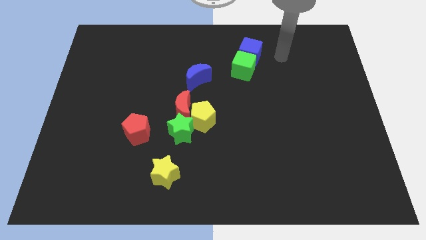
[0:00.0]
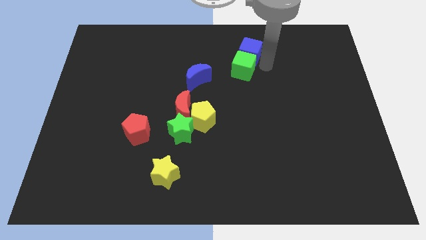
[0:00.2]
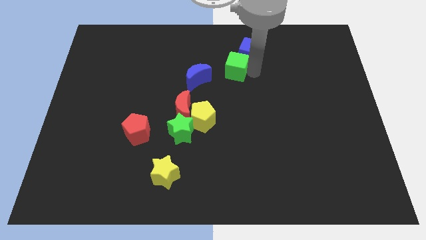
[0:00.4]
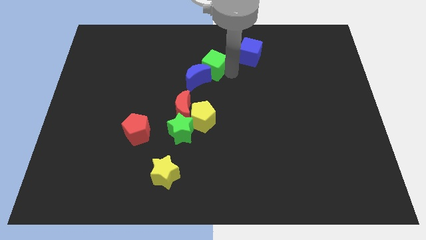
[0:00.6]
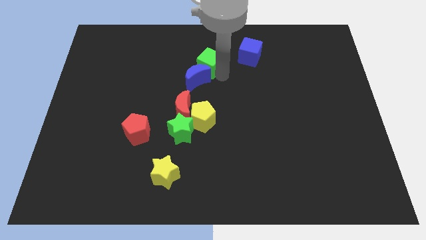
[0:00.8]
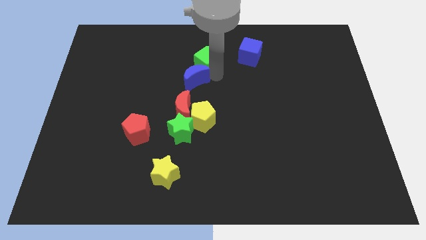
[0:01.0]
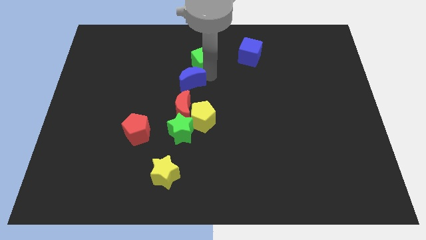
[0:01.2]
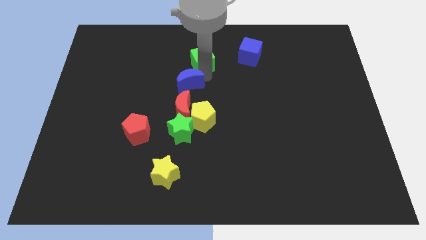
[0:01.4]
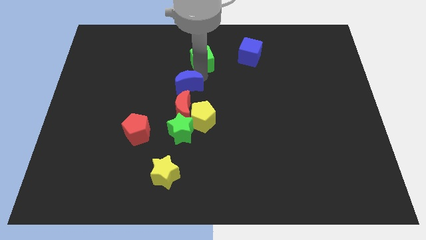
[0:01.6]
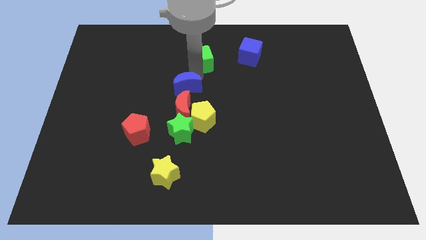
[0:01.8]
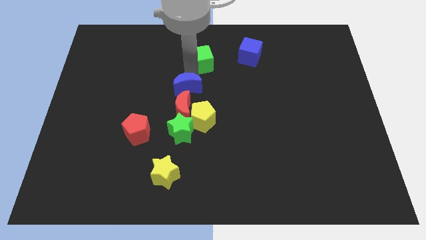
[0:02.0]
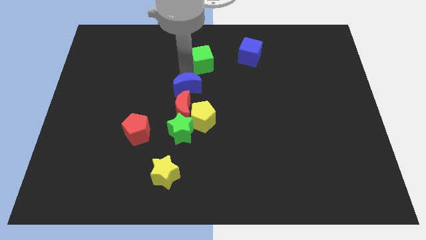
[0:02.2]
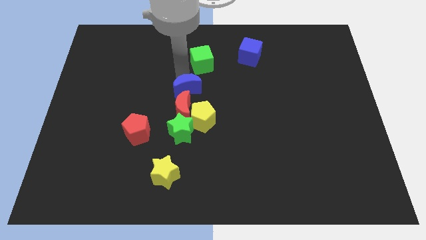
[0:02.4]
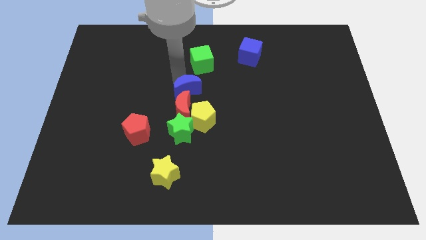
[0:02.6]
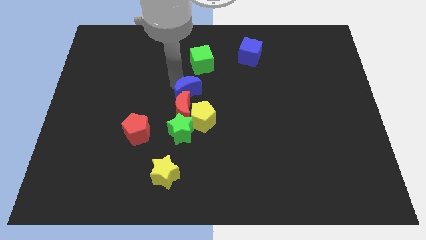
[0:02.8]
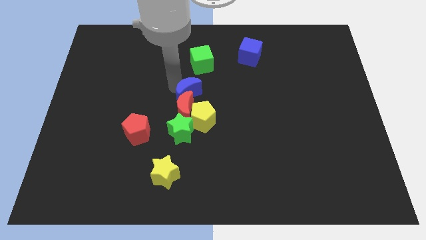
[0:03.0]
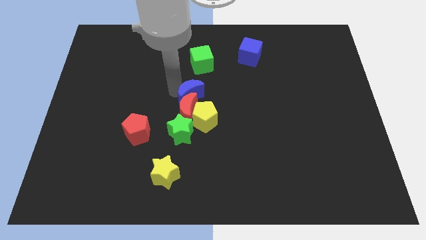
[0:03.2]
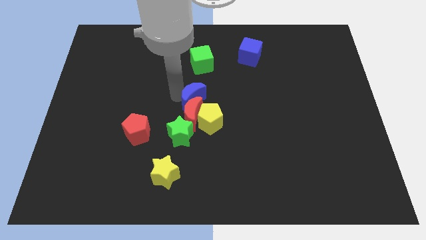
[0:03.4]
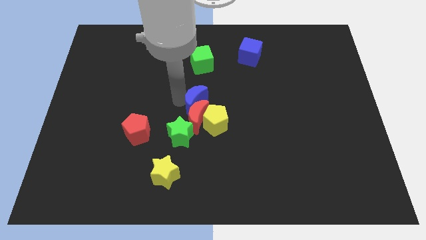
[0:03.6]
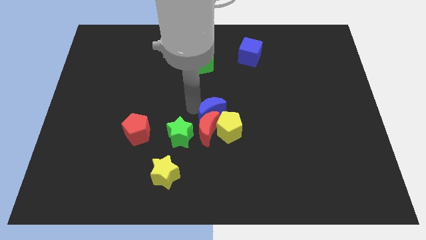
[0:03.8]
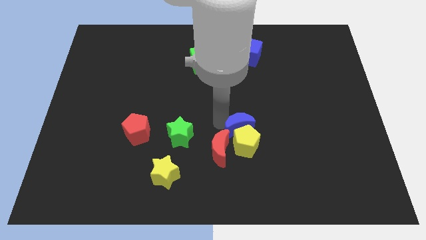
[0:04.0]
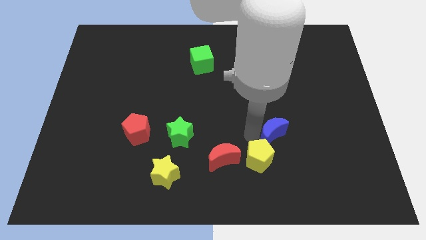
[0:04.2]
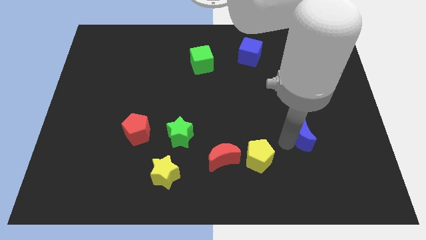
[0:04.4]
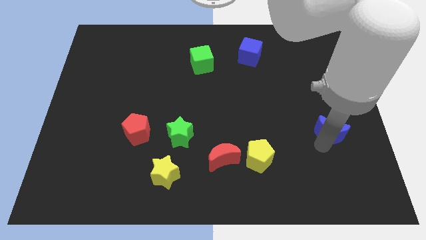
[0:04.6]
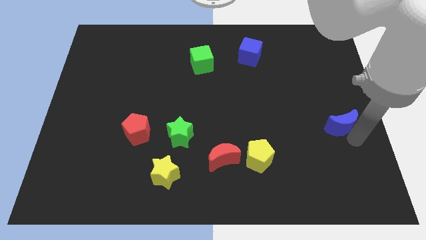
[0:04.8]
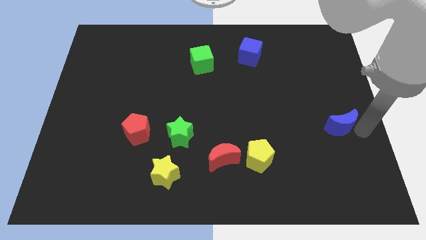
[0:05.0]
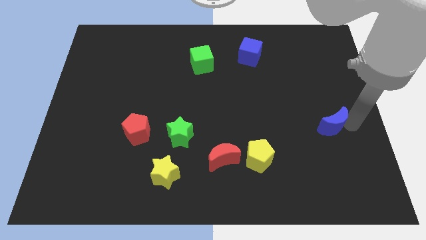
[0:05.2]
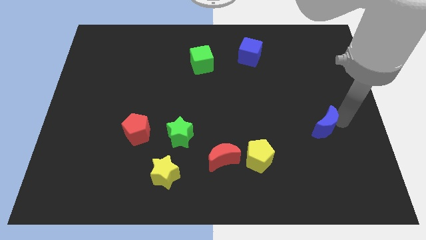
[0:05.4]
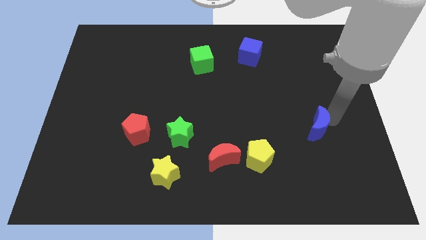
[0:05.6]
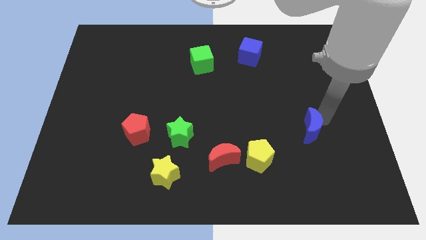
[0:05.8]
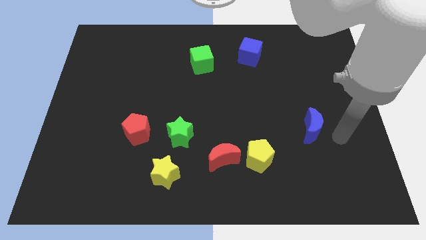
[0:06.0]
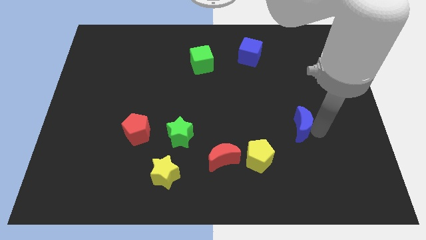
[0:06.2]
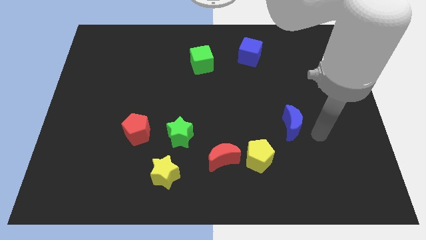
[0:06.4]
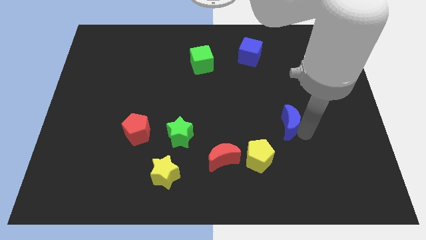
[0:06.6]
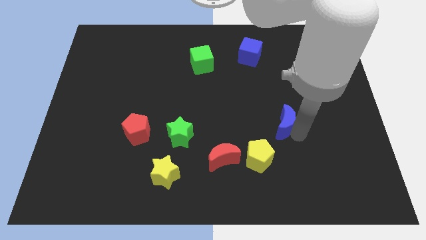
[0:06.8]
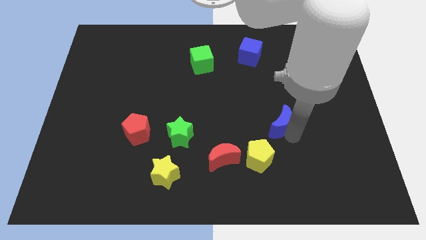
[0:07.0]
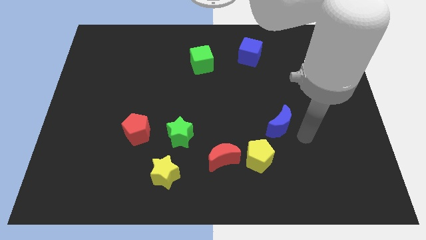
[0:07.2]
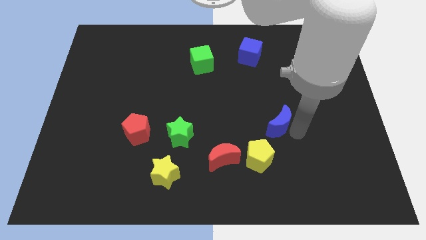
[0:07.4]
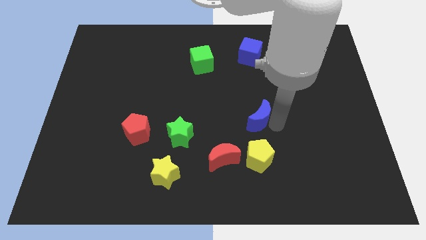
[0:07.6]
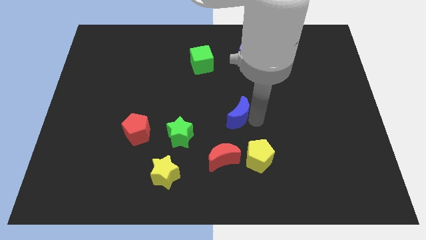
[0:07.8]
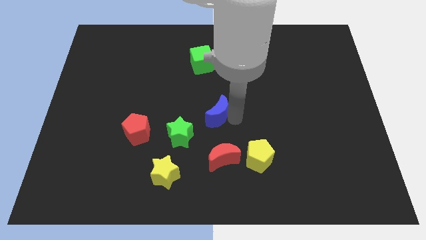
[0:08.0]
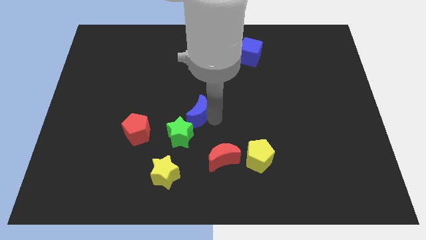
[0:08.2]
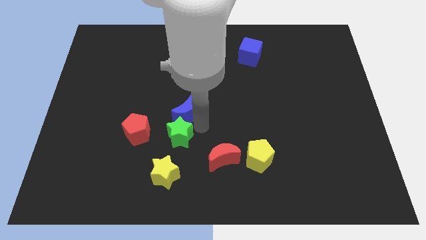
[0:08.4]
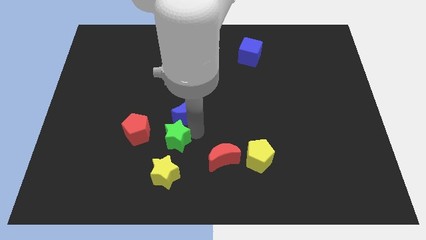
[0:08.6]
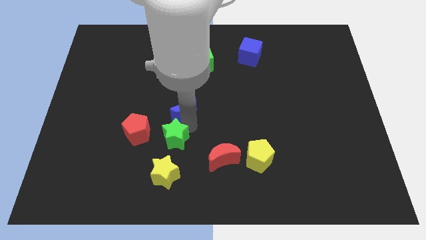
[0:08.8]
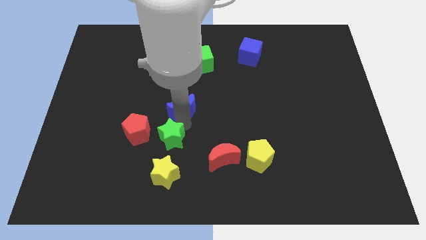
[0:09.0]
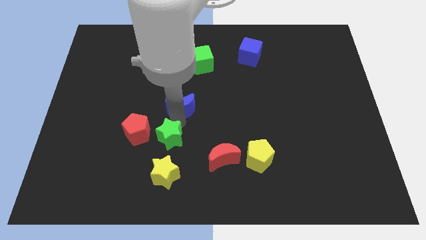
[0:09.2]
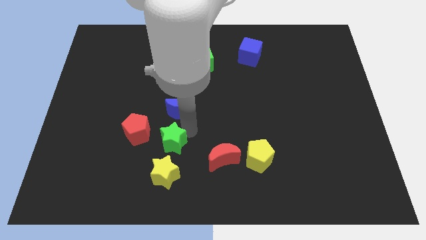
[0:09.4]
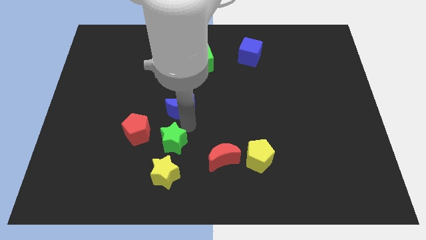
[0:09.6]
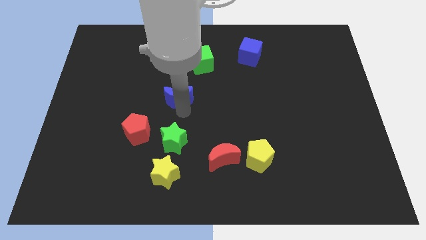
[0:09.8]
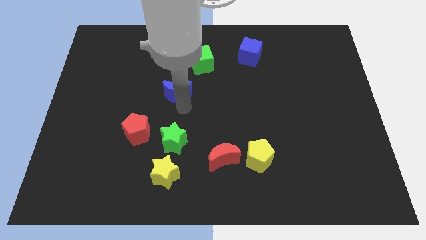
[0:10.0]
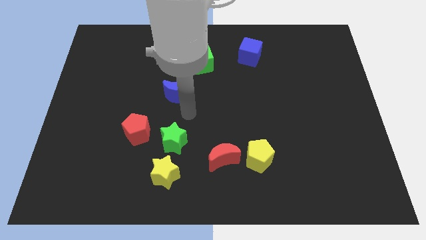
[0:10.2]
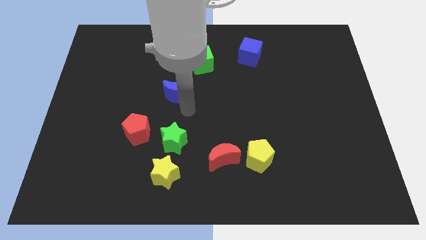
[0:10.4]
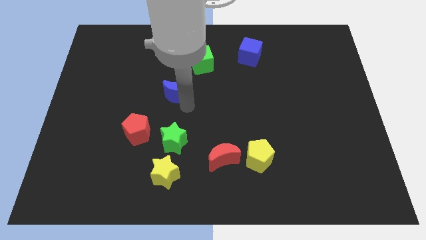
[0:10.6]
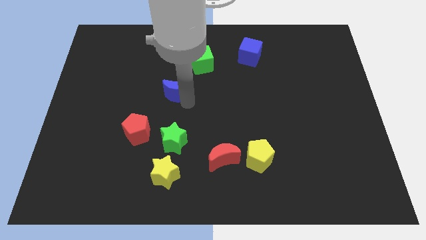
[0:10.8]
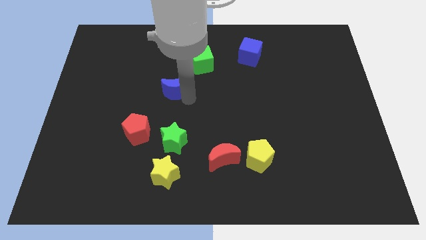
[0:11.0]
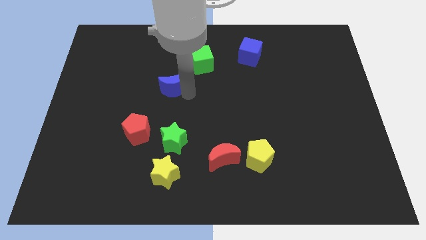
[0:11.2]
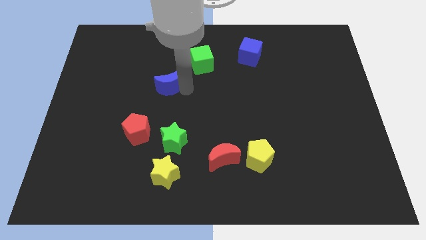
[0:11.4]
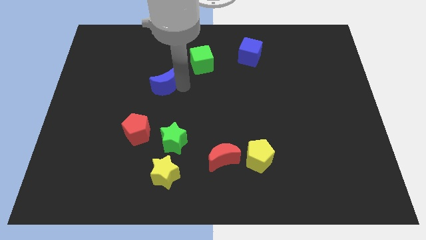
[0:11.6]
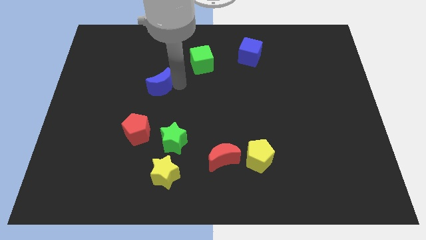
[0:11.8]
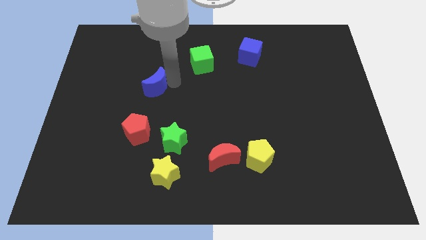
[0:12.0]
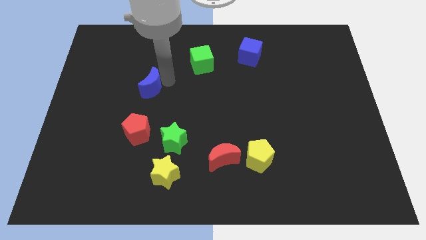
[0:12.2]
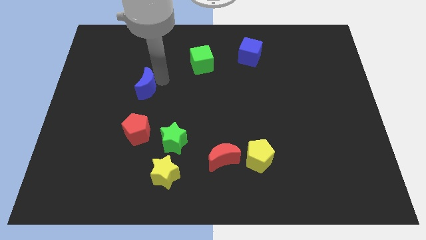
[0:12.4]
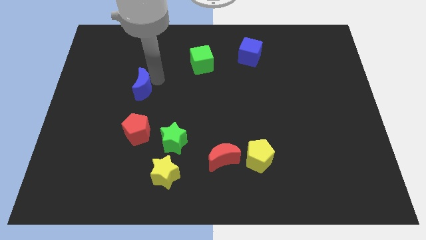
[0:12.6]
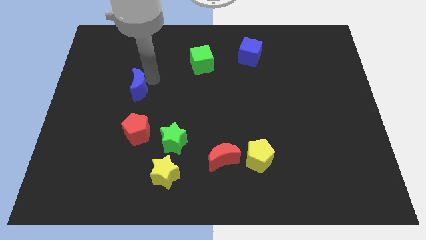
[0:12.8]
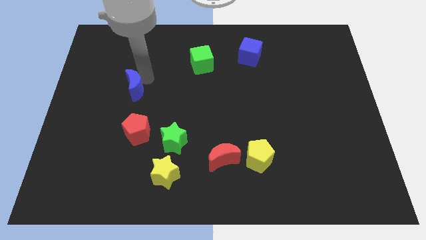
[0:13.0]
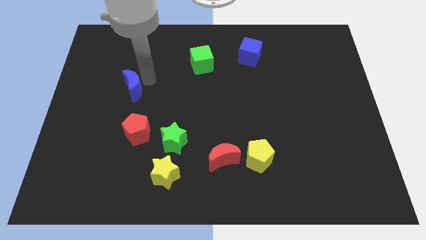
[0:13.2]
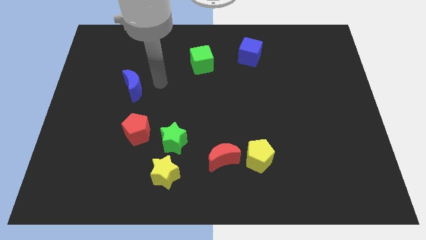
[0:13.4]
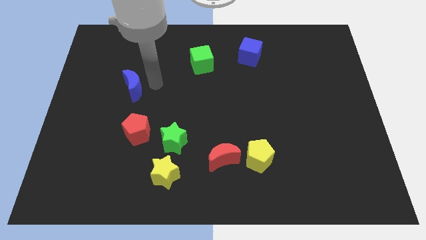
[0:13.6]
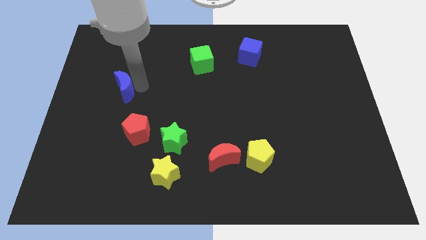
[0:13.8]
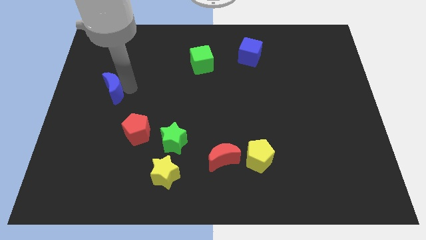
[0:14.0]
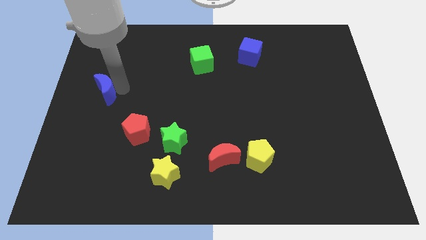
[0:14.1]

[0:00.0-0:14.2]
slide the blue moon to the left side of the board
